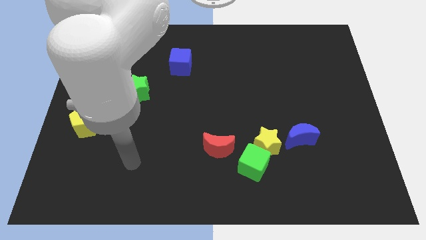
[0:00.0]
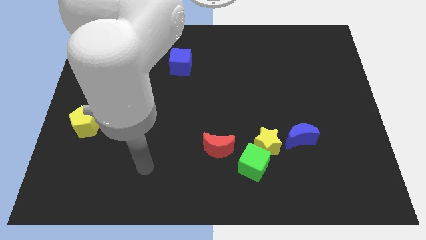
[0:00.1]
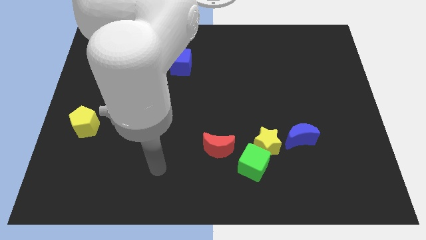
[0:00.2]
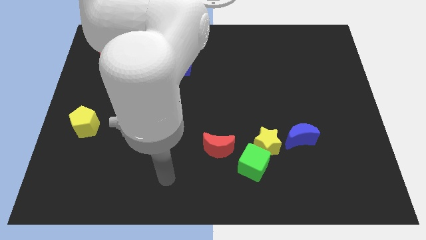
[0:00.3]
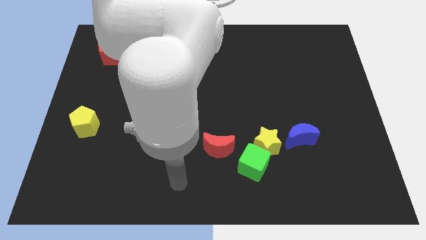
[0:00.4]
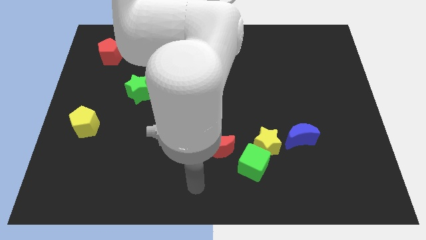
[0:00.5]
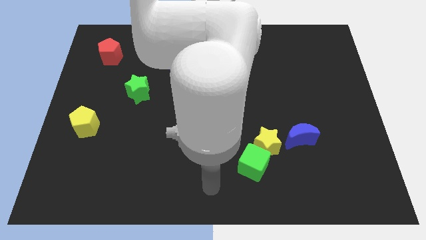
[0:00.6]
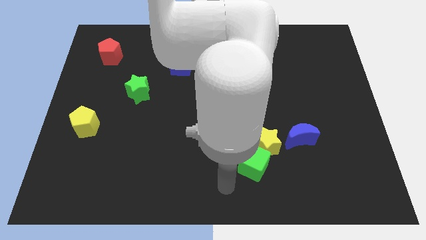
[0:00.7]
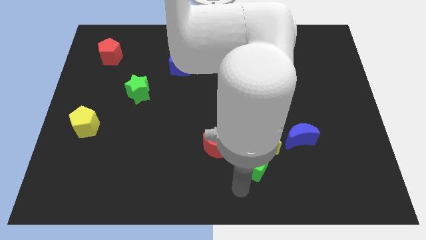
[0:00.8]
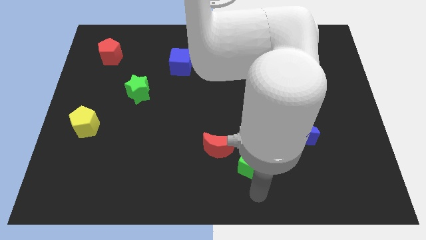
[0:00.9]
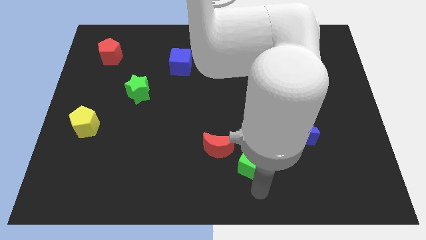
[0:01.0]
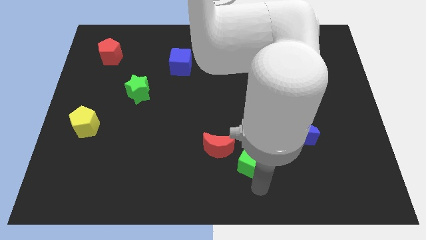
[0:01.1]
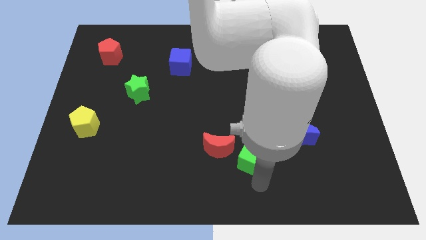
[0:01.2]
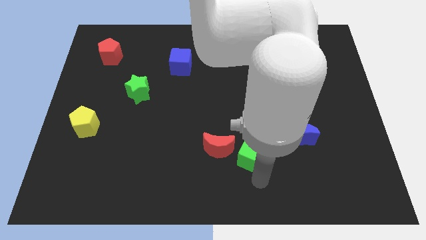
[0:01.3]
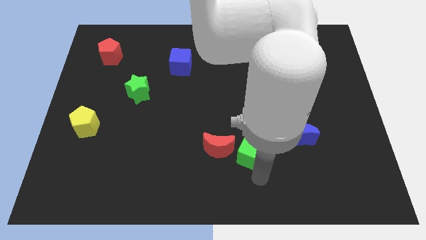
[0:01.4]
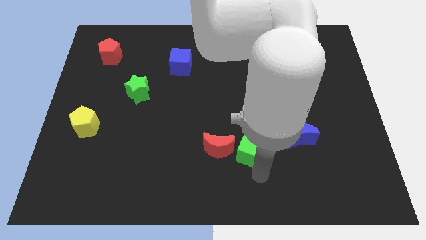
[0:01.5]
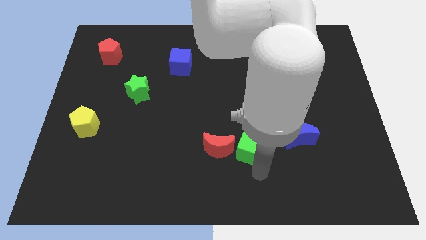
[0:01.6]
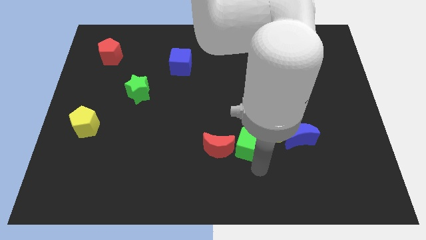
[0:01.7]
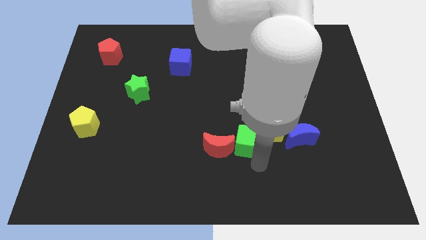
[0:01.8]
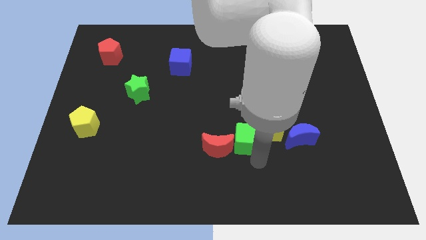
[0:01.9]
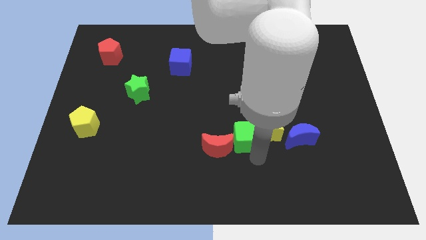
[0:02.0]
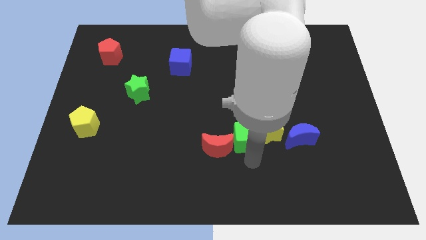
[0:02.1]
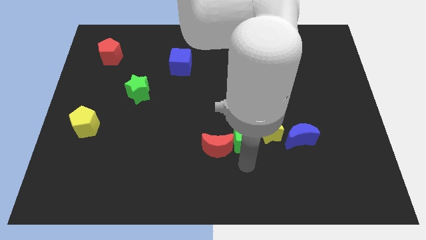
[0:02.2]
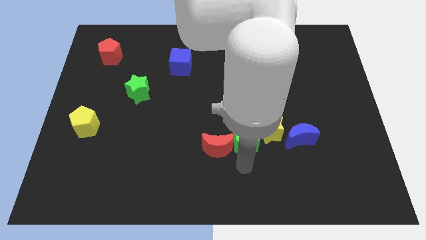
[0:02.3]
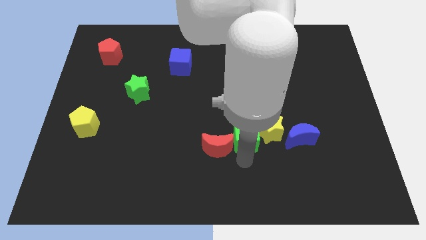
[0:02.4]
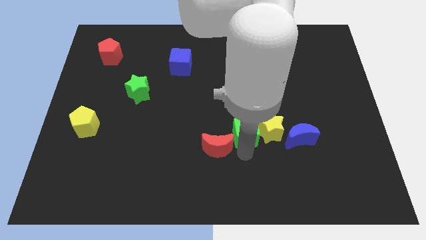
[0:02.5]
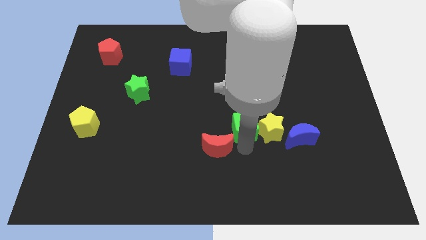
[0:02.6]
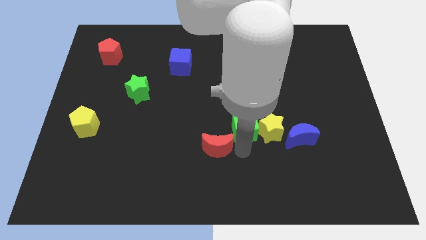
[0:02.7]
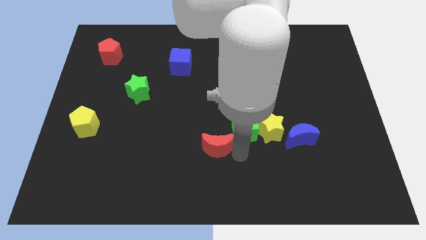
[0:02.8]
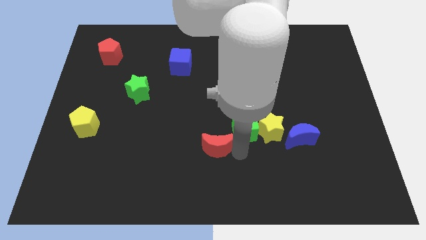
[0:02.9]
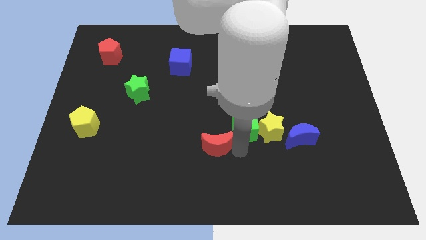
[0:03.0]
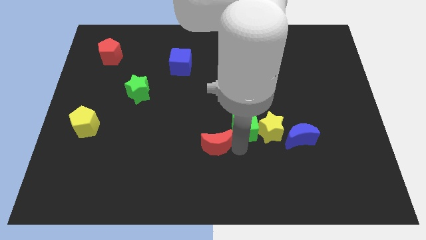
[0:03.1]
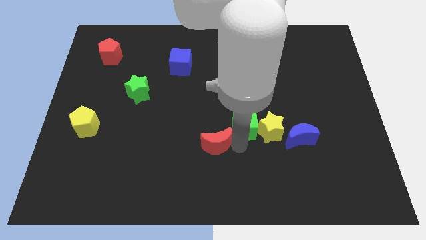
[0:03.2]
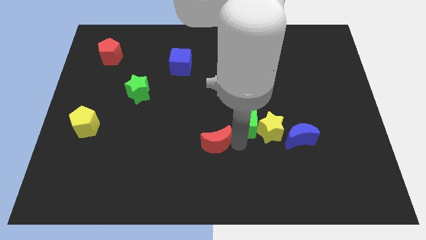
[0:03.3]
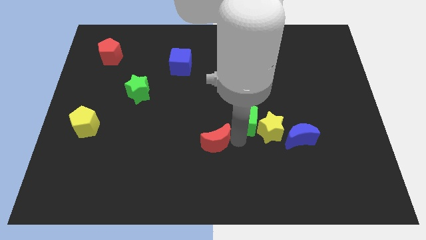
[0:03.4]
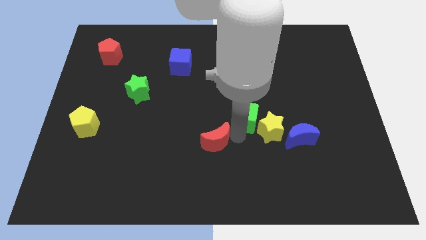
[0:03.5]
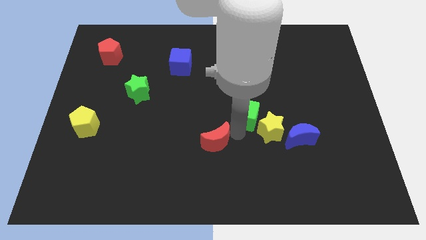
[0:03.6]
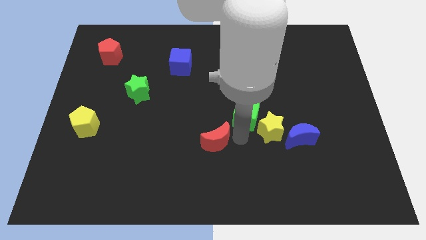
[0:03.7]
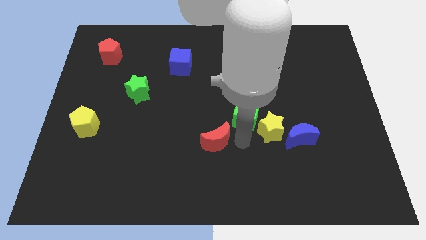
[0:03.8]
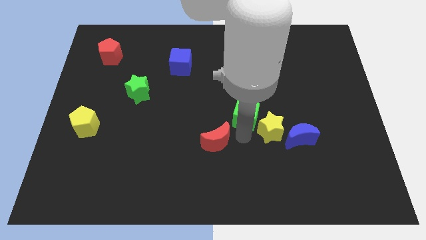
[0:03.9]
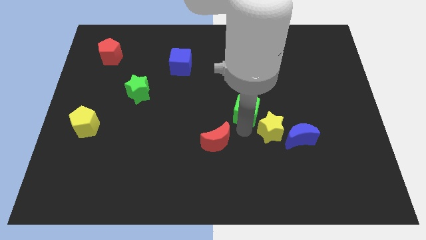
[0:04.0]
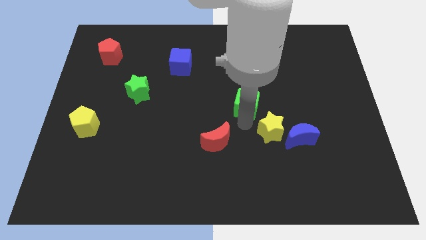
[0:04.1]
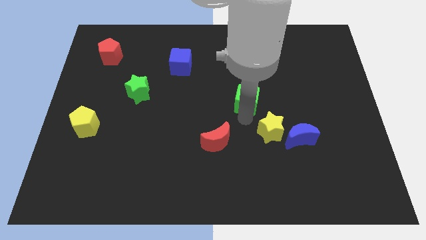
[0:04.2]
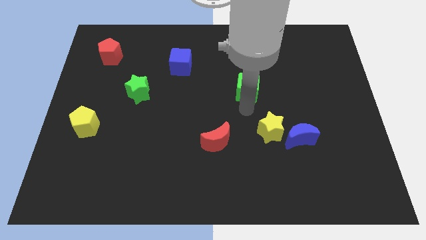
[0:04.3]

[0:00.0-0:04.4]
push the green cube up

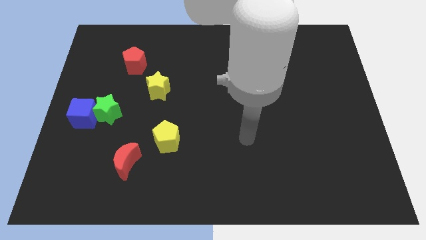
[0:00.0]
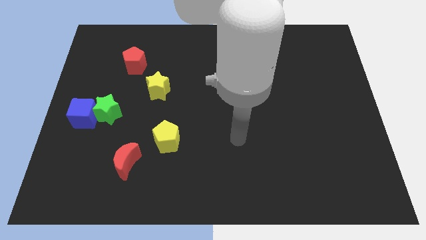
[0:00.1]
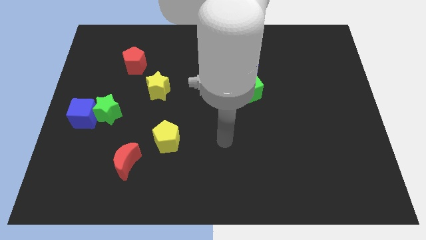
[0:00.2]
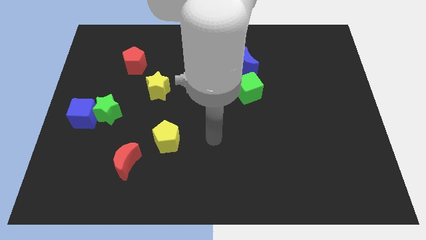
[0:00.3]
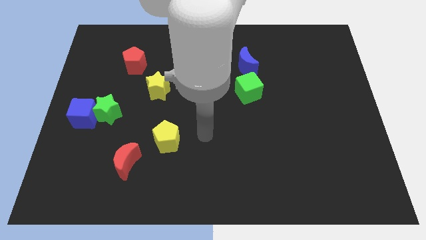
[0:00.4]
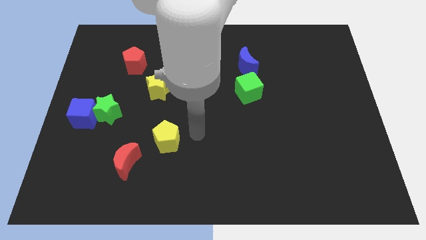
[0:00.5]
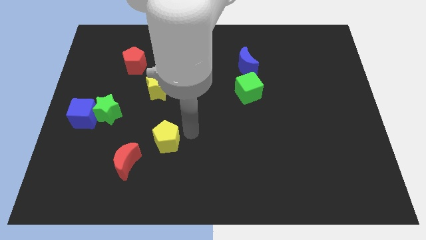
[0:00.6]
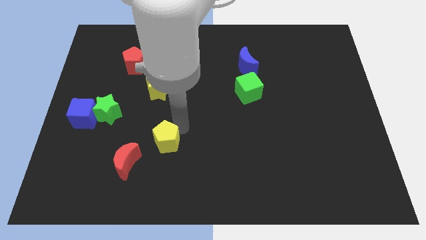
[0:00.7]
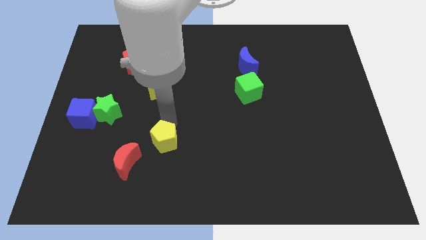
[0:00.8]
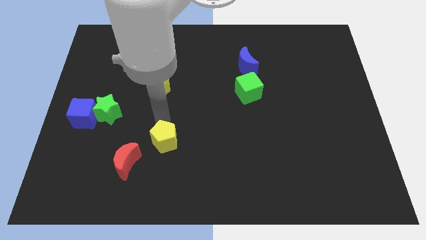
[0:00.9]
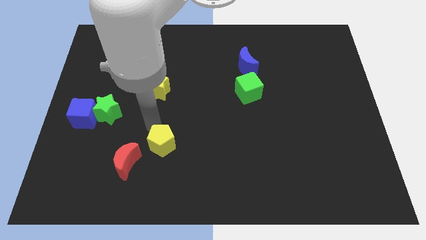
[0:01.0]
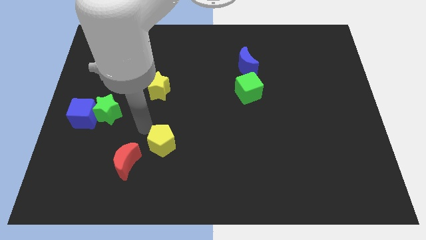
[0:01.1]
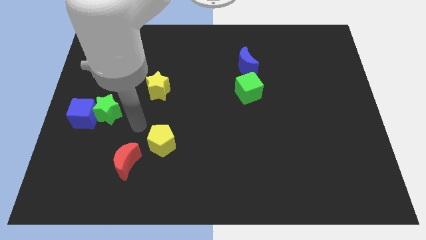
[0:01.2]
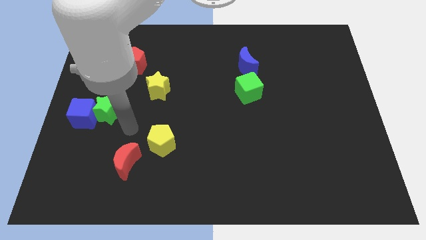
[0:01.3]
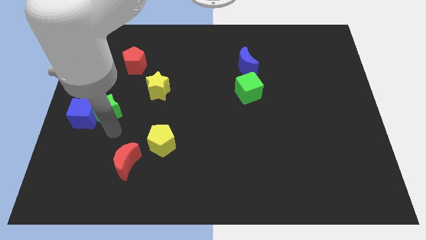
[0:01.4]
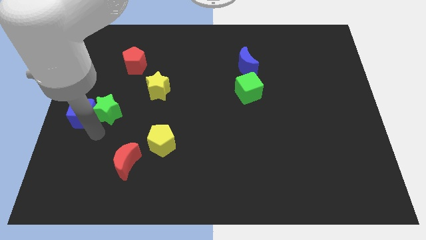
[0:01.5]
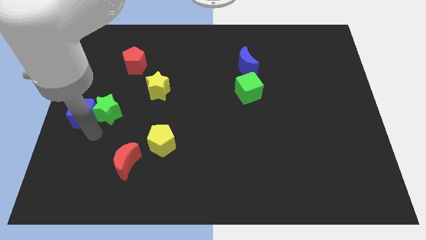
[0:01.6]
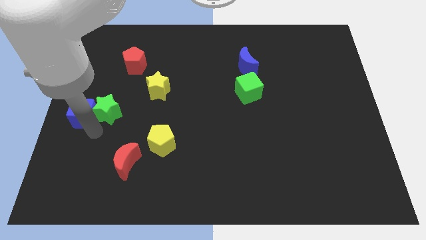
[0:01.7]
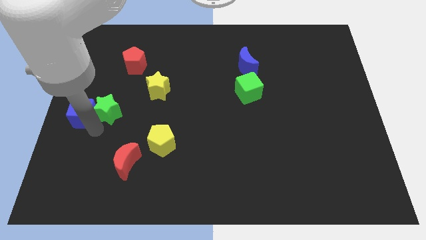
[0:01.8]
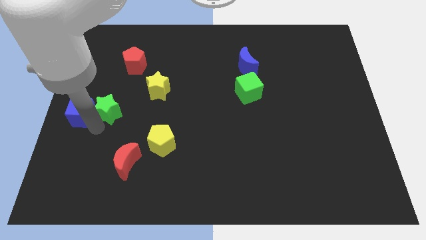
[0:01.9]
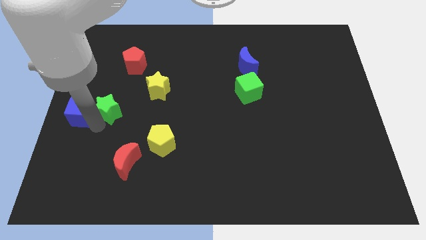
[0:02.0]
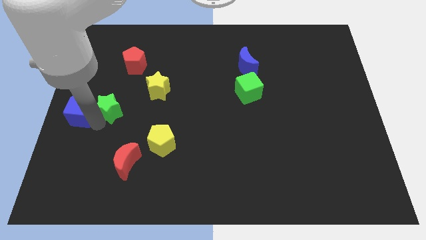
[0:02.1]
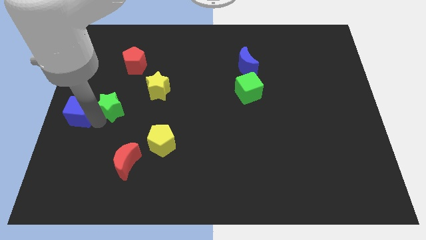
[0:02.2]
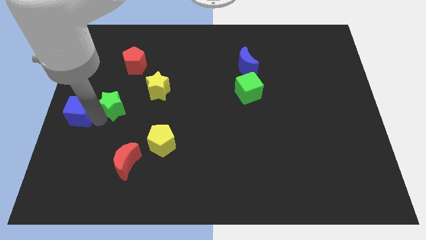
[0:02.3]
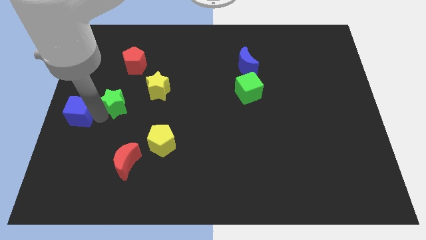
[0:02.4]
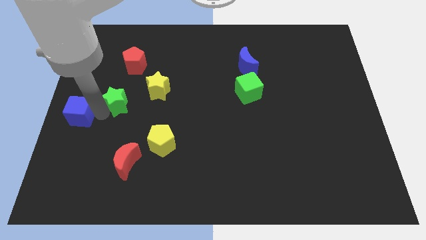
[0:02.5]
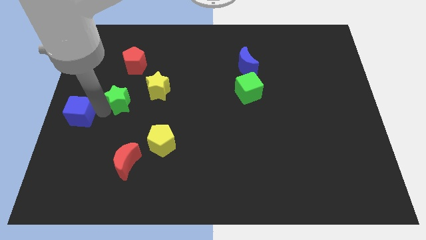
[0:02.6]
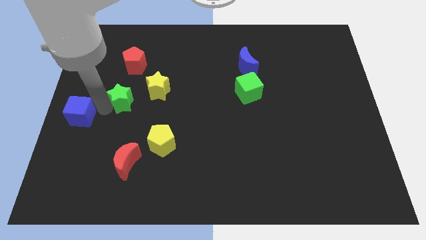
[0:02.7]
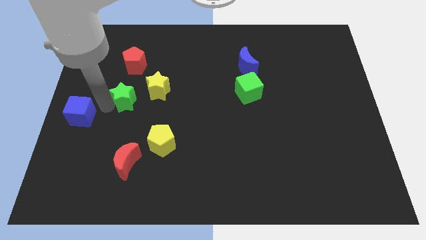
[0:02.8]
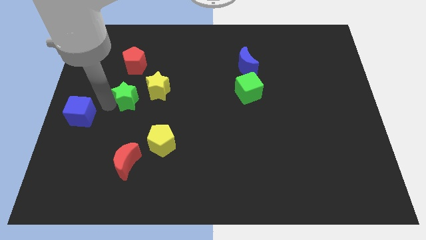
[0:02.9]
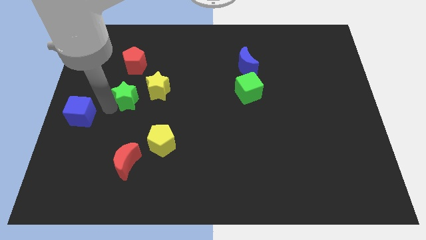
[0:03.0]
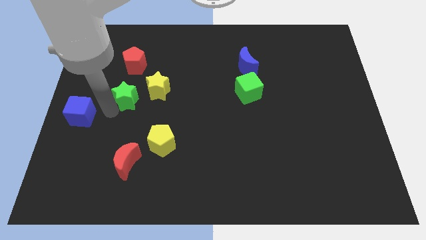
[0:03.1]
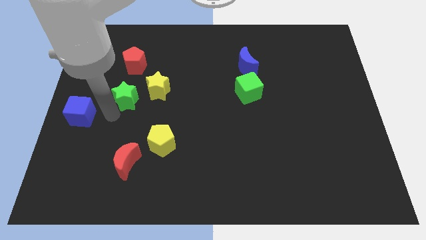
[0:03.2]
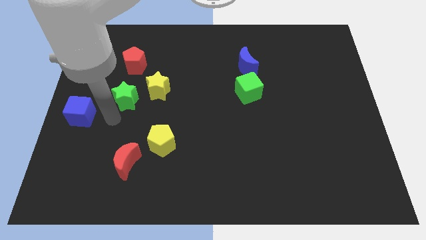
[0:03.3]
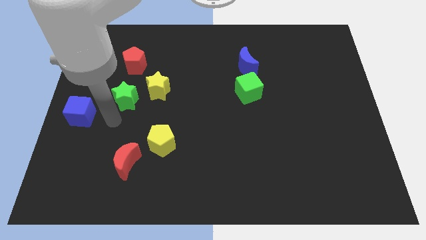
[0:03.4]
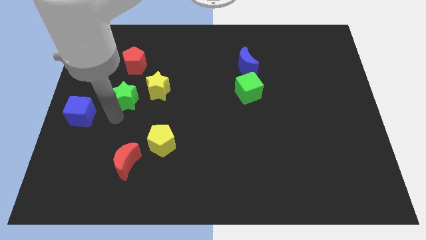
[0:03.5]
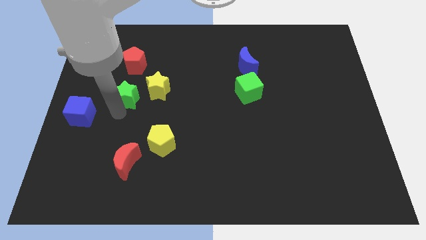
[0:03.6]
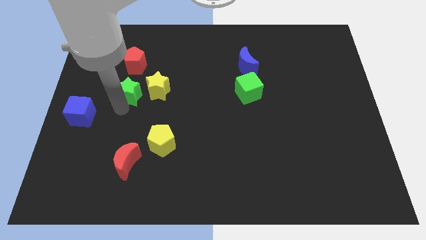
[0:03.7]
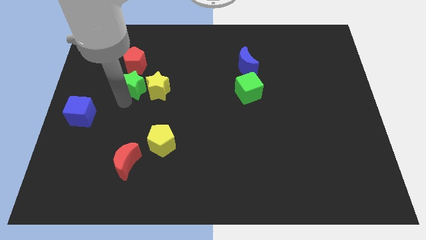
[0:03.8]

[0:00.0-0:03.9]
move the green star up and then to the right slightly
